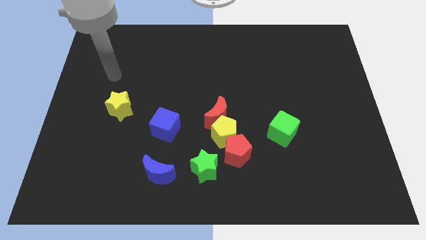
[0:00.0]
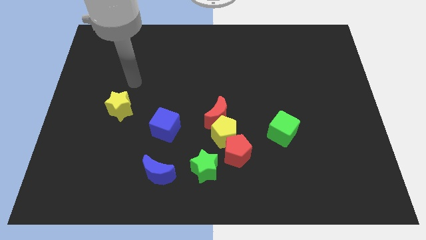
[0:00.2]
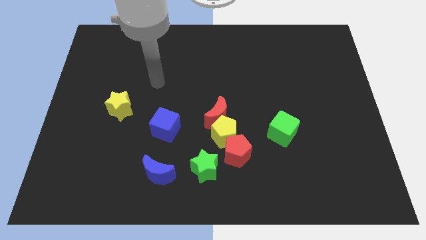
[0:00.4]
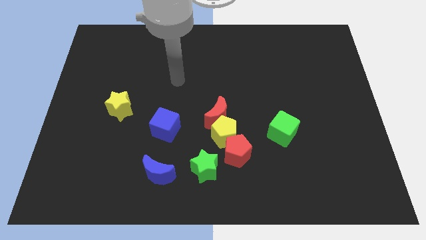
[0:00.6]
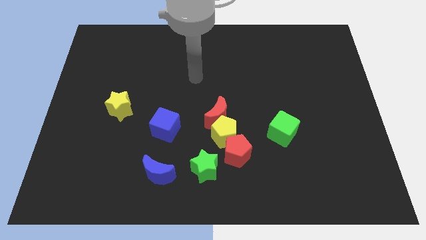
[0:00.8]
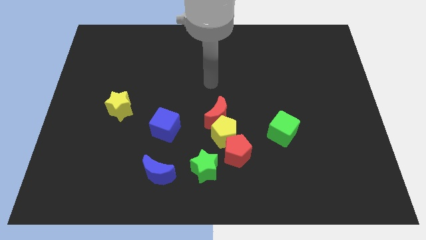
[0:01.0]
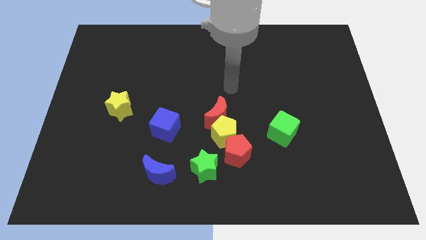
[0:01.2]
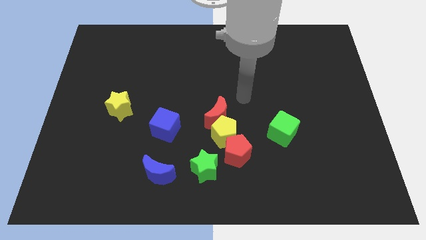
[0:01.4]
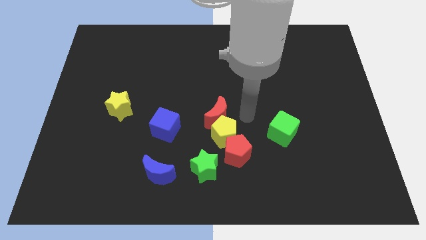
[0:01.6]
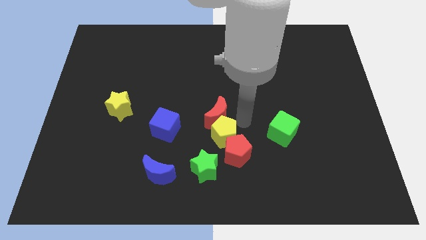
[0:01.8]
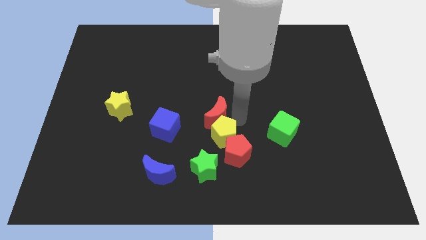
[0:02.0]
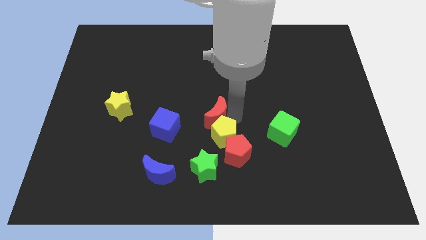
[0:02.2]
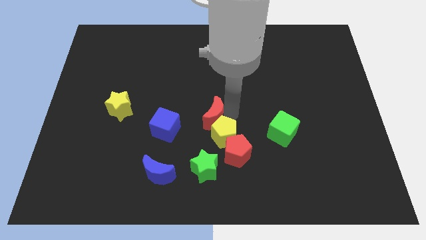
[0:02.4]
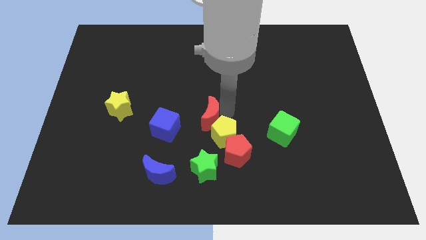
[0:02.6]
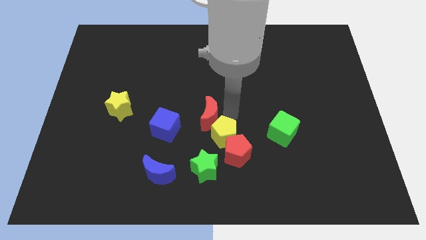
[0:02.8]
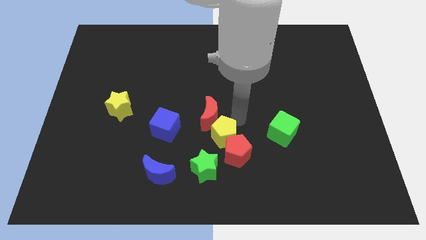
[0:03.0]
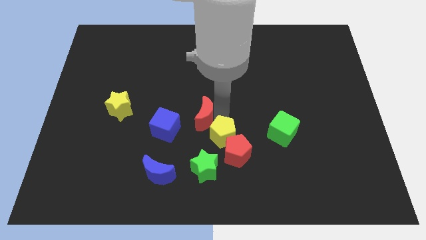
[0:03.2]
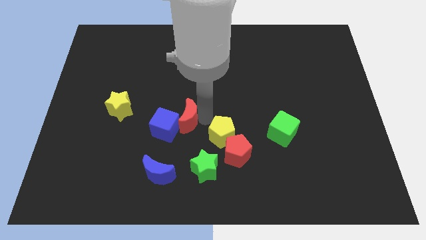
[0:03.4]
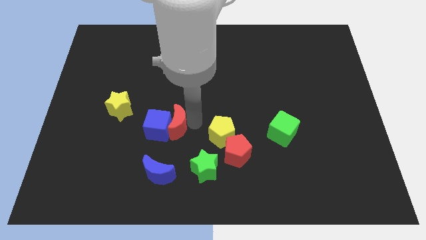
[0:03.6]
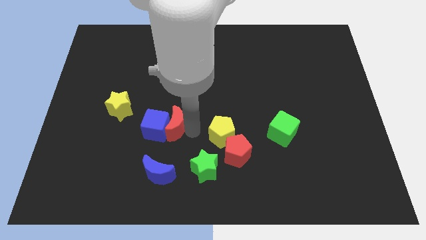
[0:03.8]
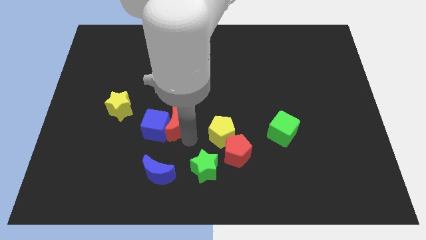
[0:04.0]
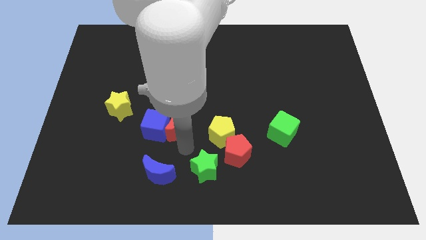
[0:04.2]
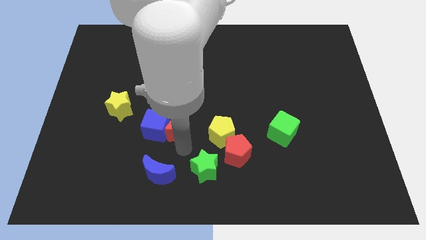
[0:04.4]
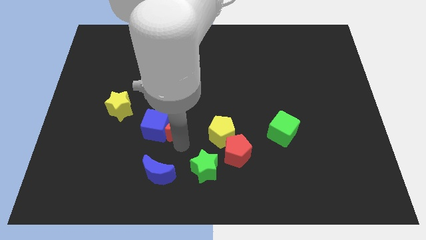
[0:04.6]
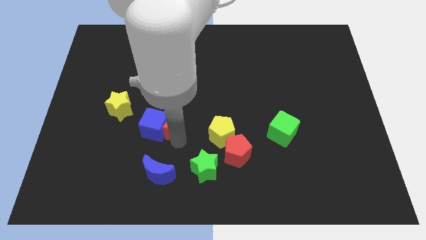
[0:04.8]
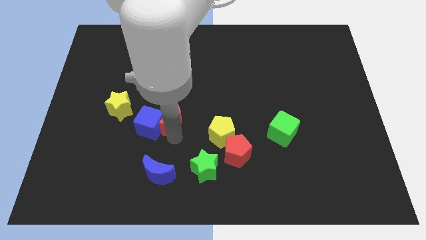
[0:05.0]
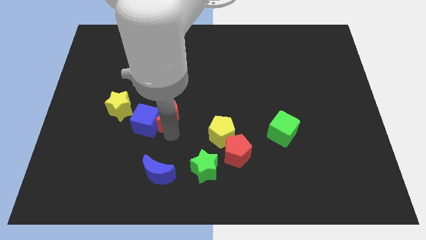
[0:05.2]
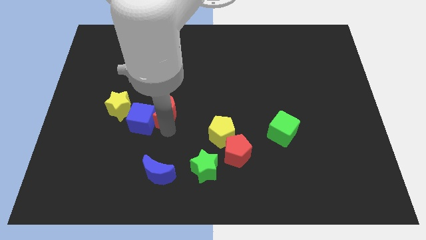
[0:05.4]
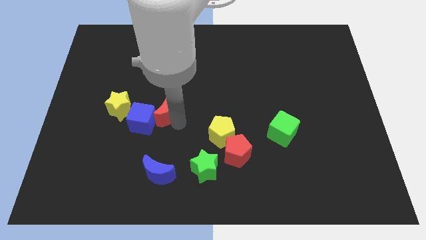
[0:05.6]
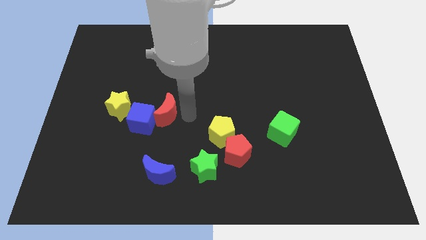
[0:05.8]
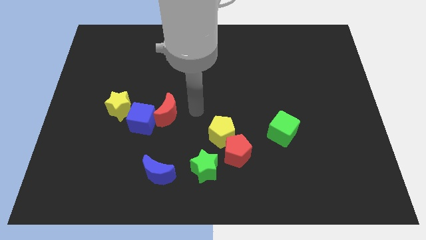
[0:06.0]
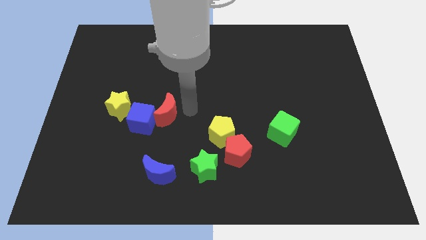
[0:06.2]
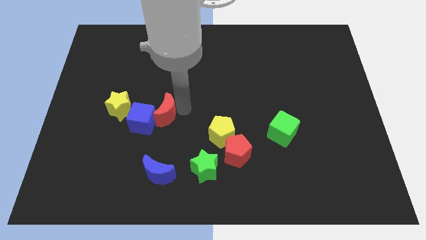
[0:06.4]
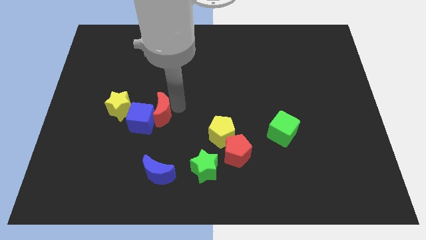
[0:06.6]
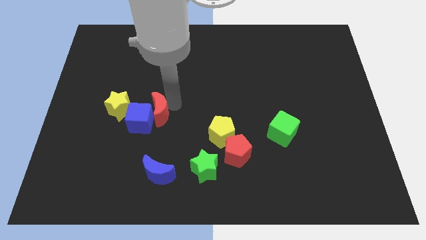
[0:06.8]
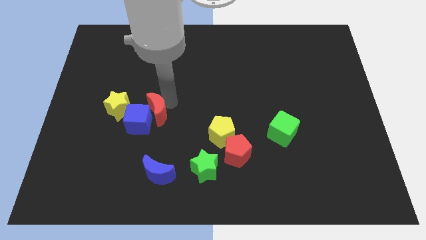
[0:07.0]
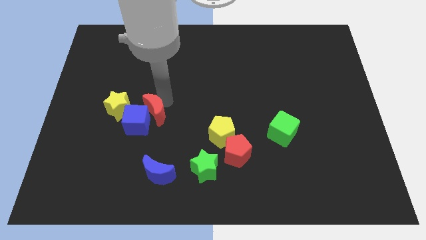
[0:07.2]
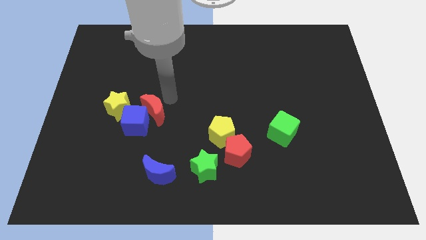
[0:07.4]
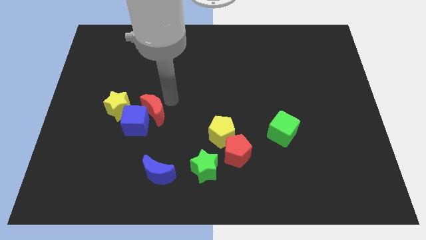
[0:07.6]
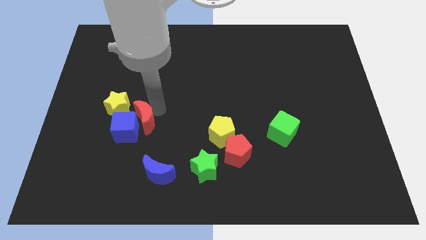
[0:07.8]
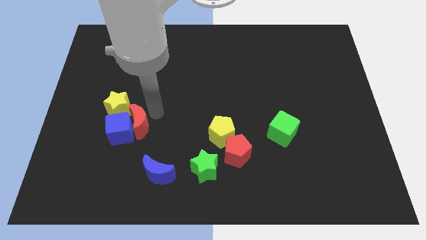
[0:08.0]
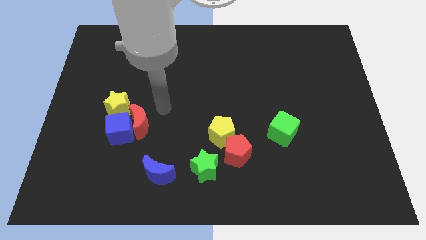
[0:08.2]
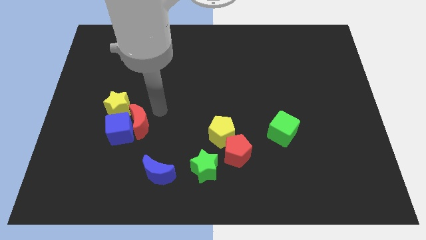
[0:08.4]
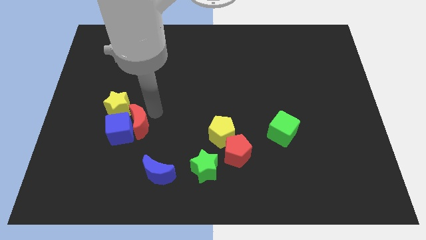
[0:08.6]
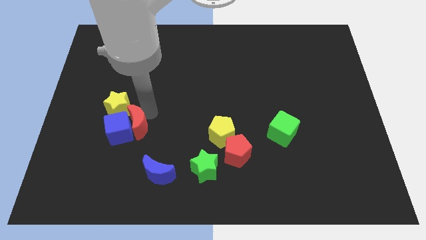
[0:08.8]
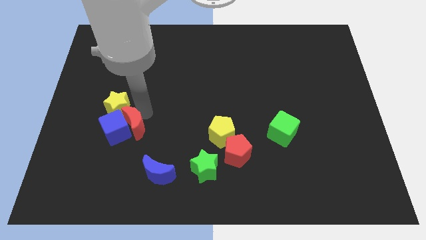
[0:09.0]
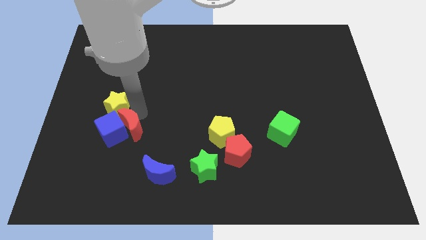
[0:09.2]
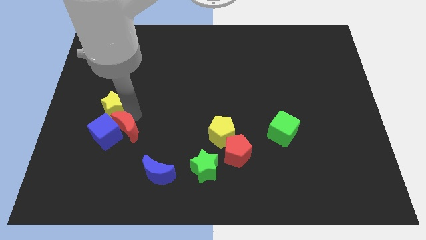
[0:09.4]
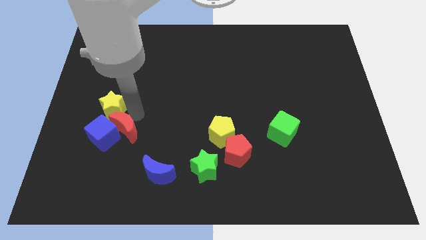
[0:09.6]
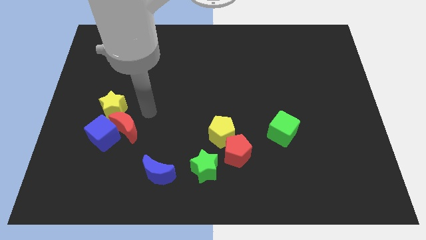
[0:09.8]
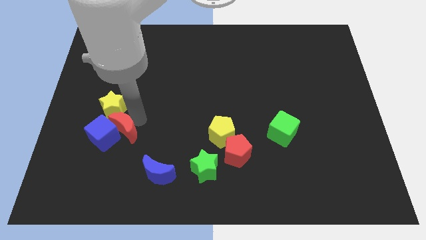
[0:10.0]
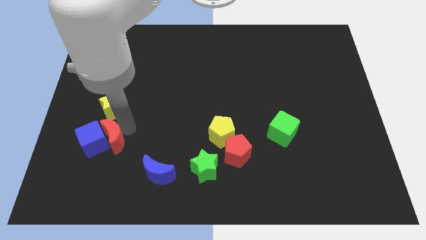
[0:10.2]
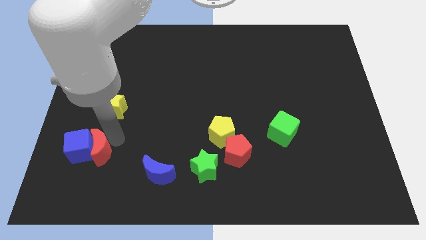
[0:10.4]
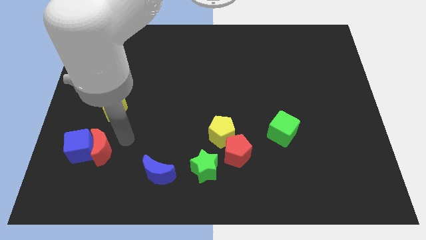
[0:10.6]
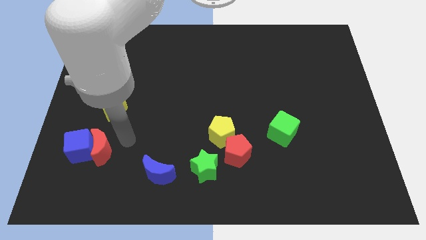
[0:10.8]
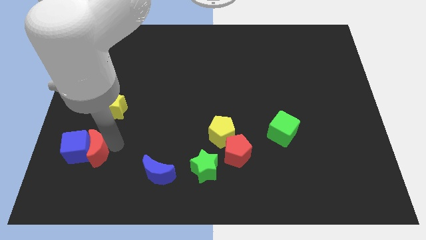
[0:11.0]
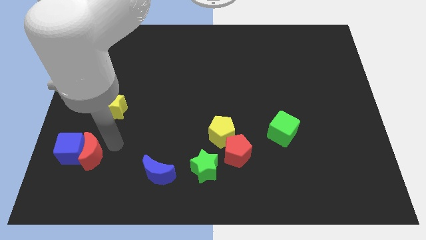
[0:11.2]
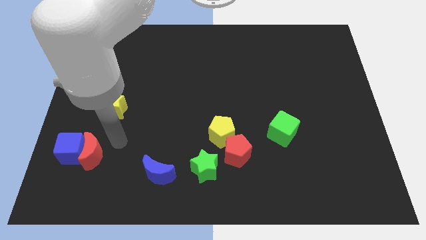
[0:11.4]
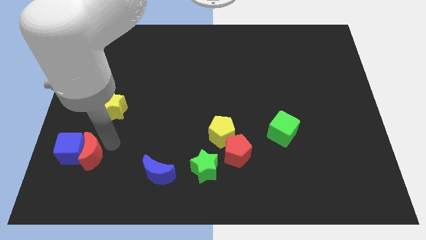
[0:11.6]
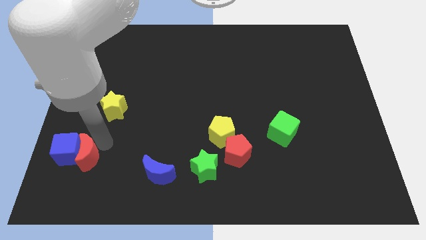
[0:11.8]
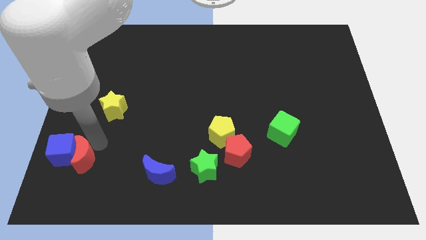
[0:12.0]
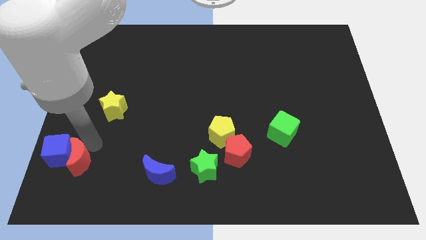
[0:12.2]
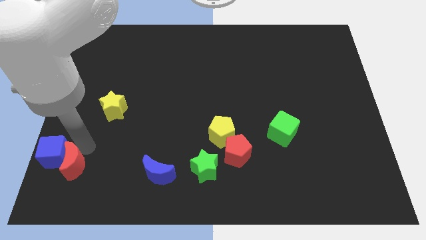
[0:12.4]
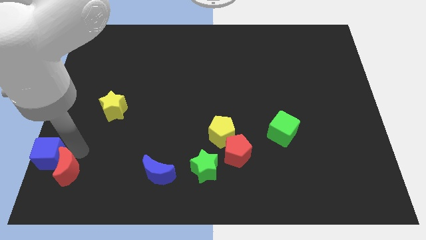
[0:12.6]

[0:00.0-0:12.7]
push the red moon to the bottom left of the board
